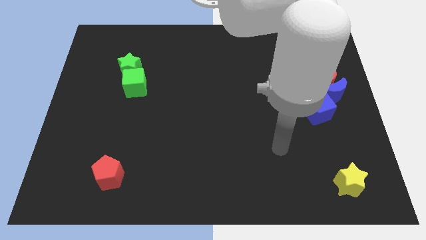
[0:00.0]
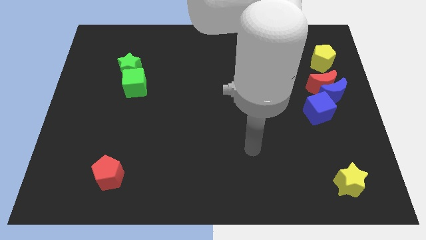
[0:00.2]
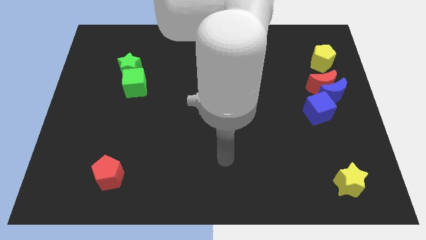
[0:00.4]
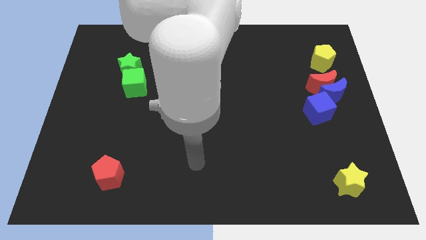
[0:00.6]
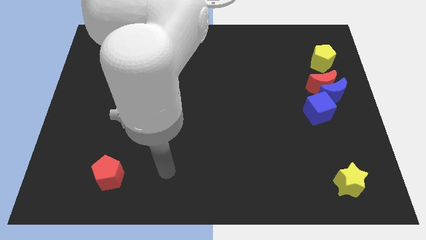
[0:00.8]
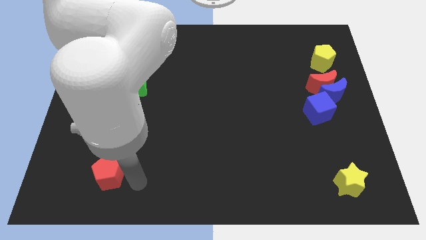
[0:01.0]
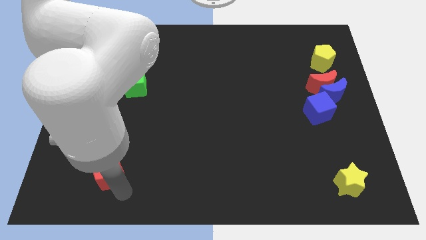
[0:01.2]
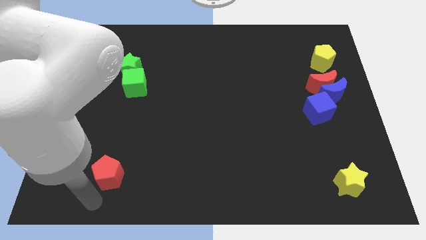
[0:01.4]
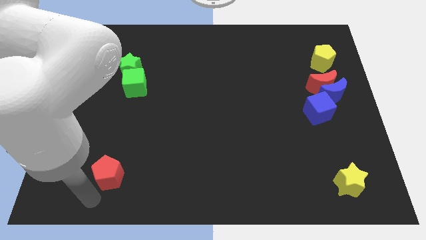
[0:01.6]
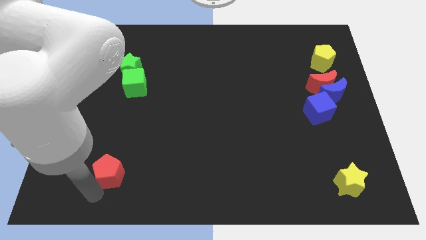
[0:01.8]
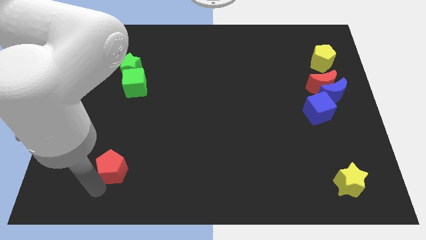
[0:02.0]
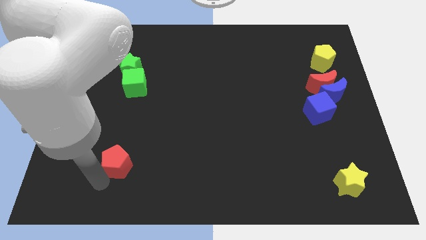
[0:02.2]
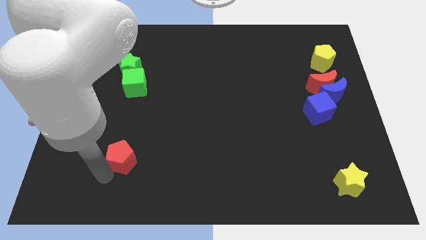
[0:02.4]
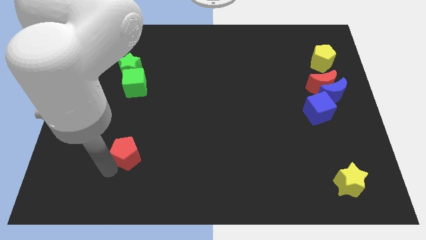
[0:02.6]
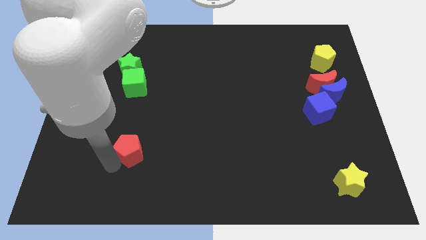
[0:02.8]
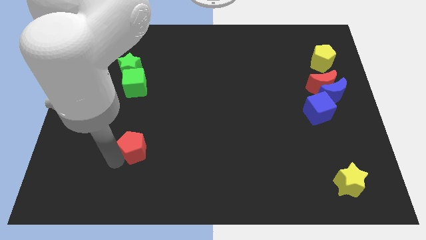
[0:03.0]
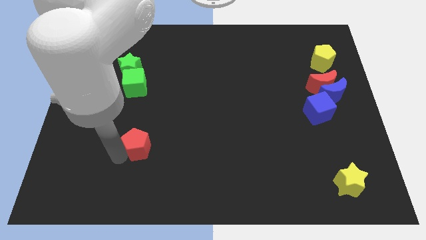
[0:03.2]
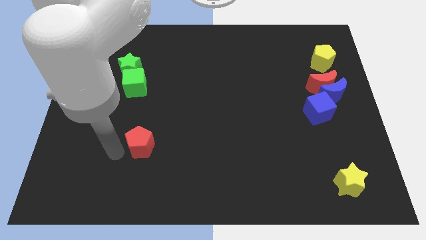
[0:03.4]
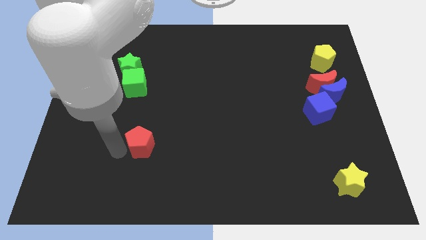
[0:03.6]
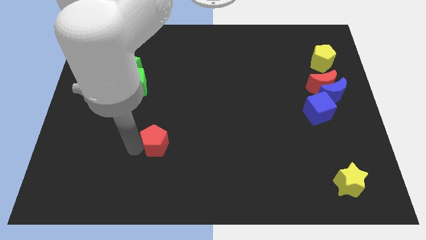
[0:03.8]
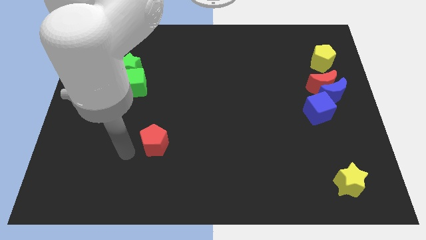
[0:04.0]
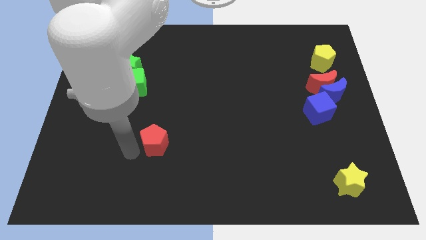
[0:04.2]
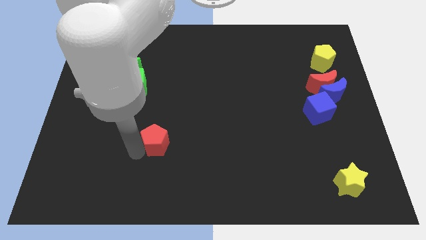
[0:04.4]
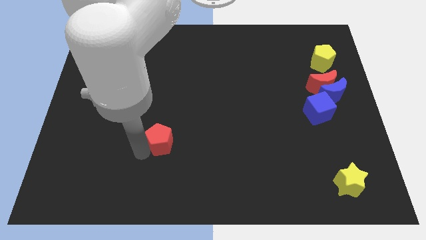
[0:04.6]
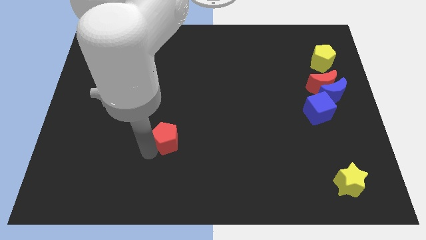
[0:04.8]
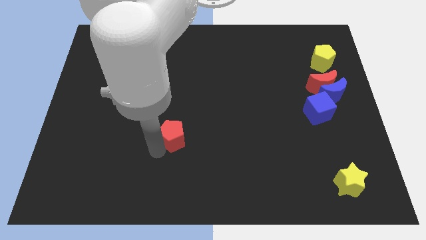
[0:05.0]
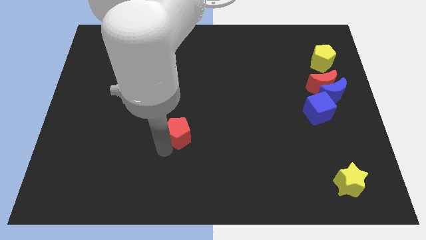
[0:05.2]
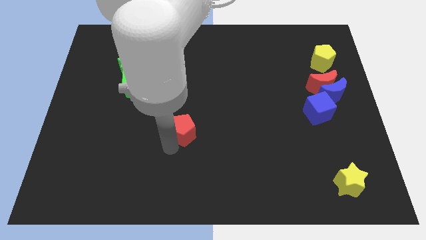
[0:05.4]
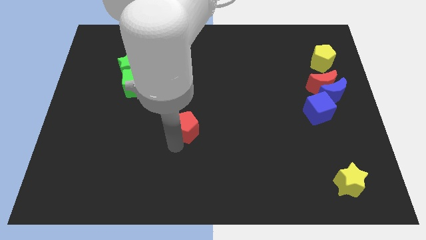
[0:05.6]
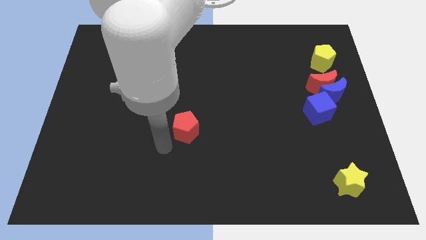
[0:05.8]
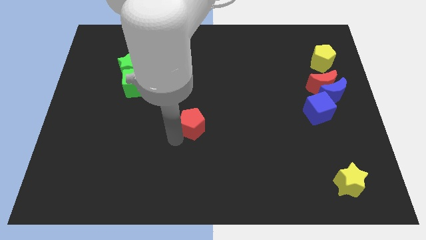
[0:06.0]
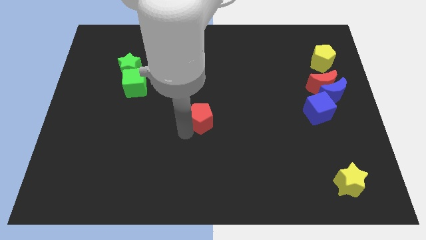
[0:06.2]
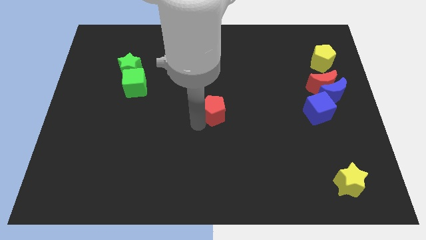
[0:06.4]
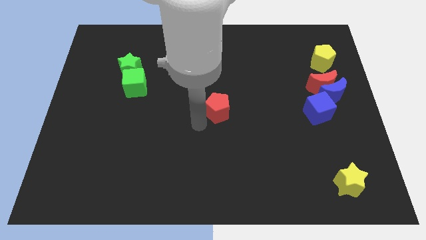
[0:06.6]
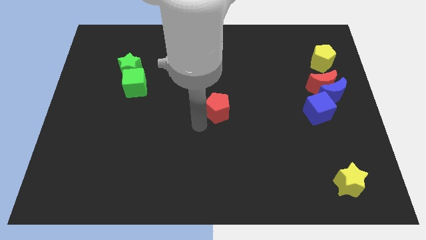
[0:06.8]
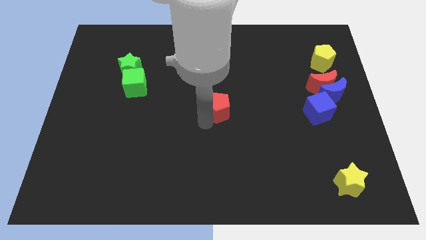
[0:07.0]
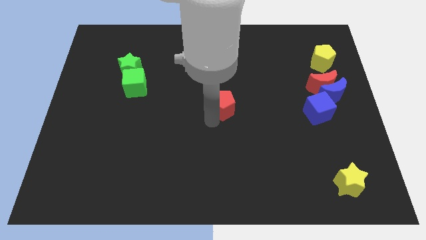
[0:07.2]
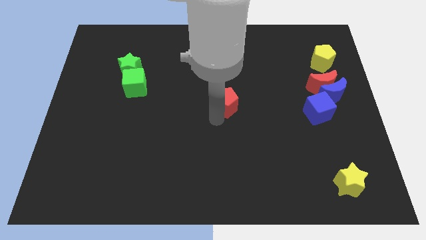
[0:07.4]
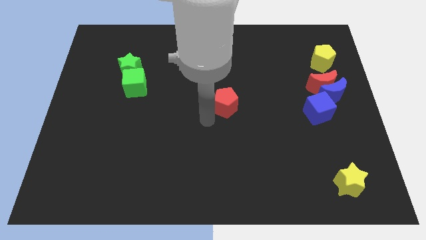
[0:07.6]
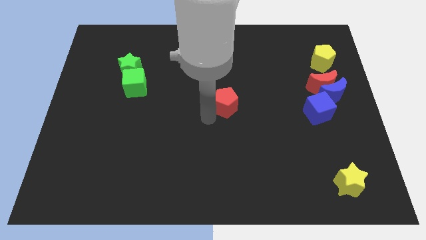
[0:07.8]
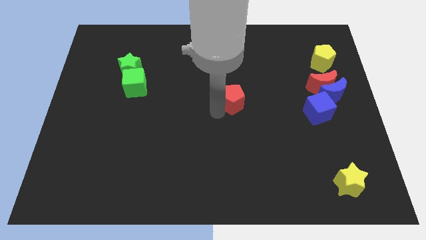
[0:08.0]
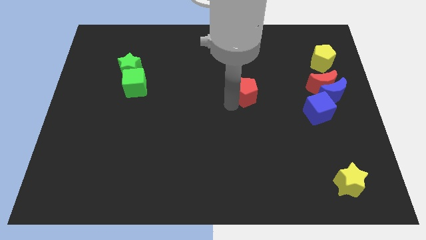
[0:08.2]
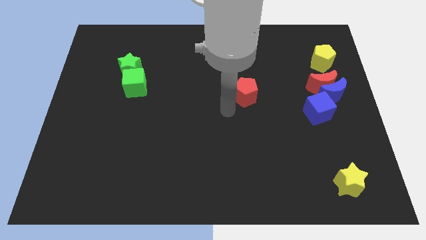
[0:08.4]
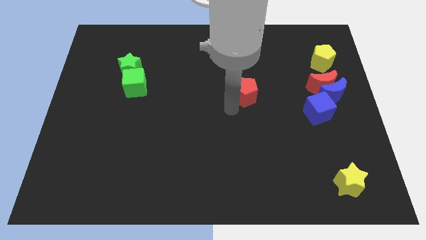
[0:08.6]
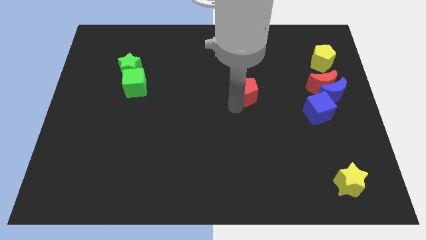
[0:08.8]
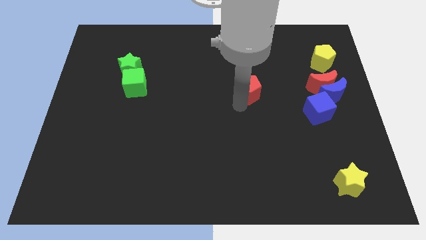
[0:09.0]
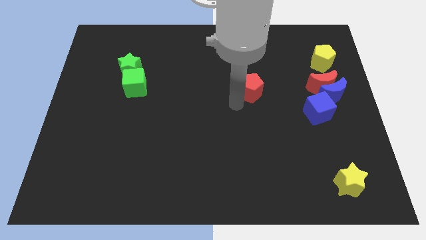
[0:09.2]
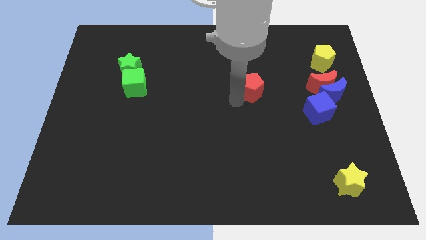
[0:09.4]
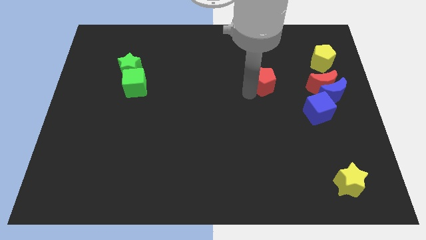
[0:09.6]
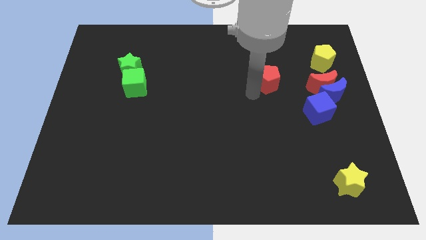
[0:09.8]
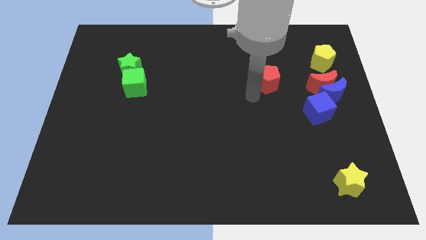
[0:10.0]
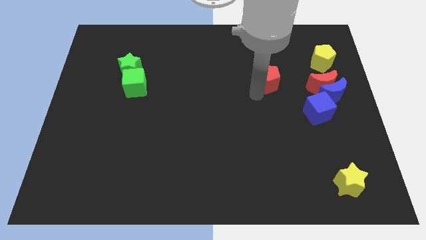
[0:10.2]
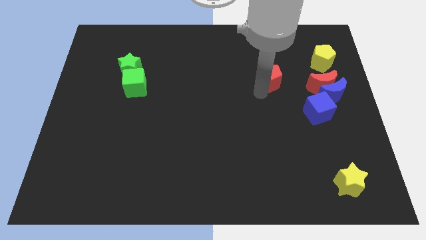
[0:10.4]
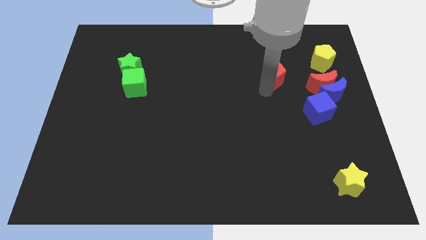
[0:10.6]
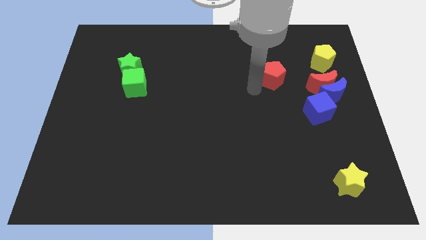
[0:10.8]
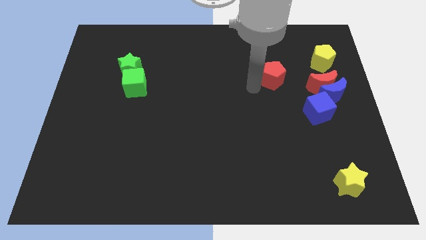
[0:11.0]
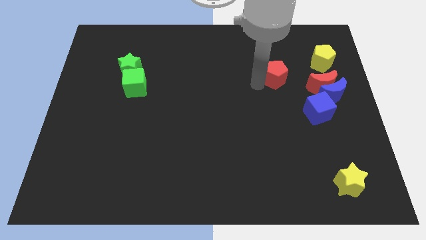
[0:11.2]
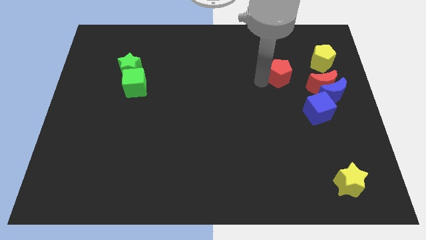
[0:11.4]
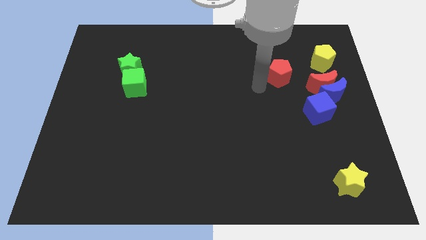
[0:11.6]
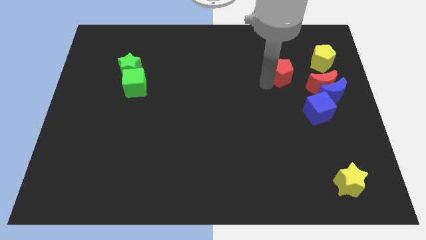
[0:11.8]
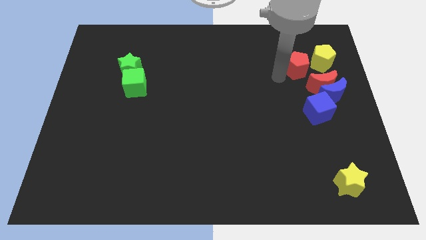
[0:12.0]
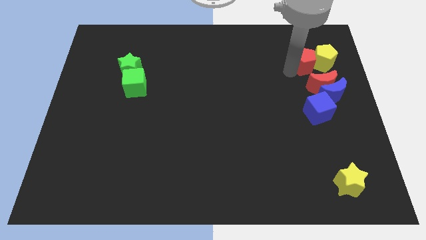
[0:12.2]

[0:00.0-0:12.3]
push the red pentagon close to the yellow pentagon

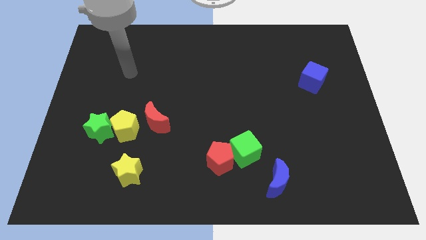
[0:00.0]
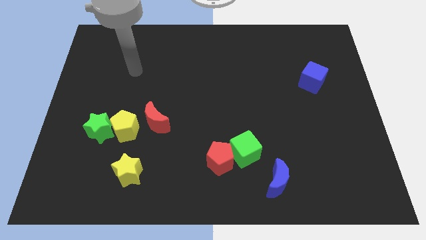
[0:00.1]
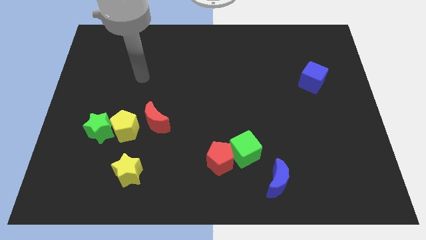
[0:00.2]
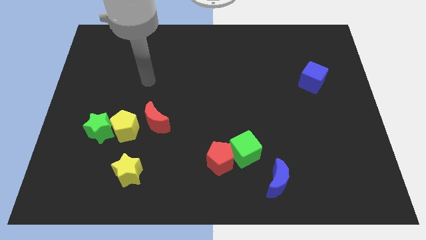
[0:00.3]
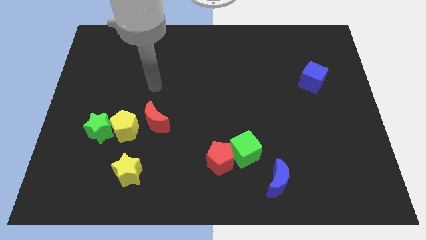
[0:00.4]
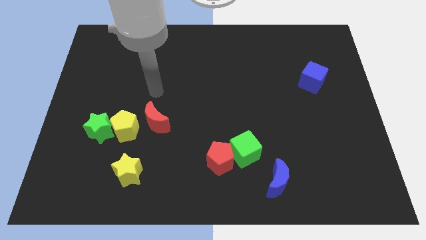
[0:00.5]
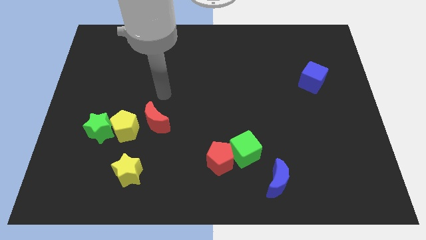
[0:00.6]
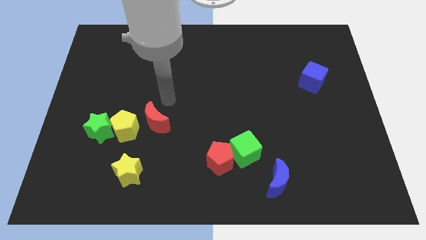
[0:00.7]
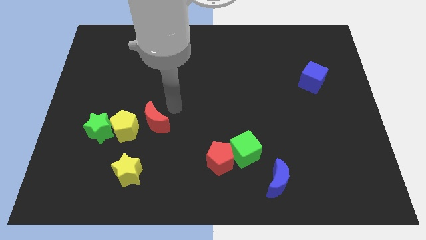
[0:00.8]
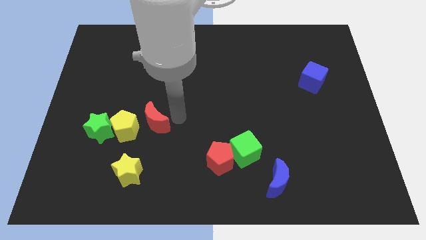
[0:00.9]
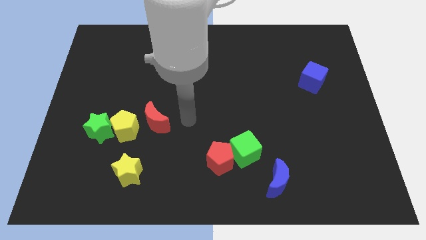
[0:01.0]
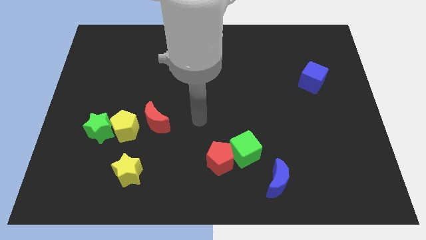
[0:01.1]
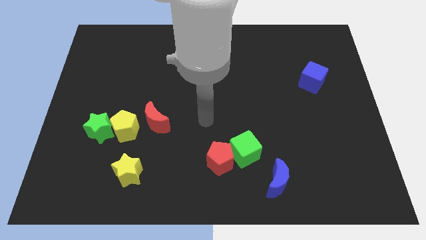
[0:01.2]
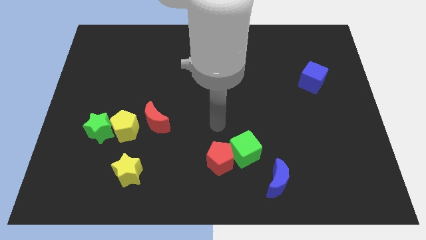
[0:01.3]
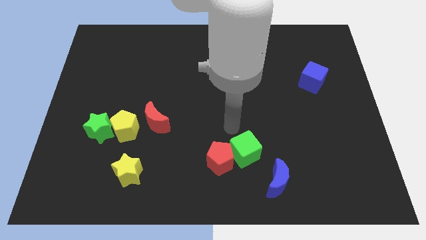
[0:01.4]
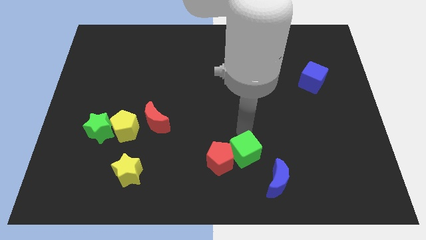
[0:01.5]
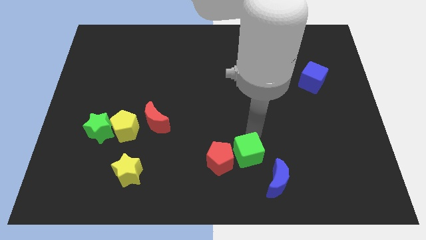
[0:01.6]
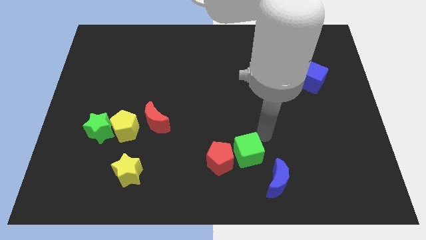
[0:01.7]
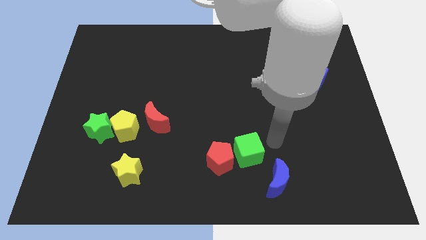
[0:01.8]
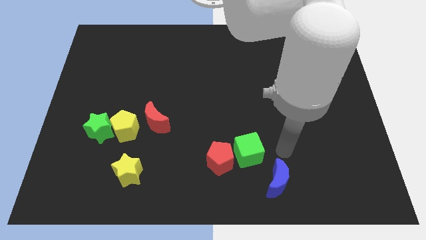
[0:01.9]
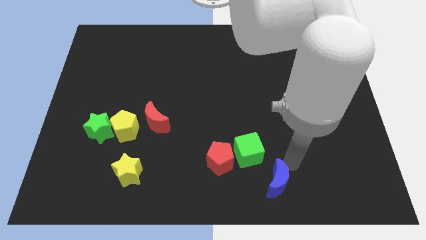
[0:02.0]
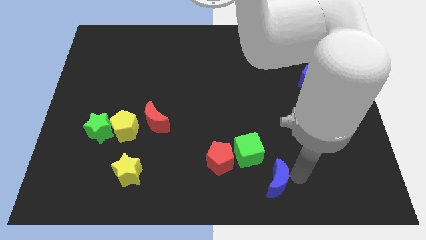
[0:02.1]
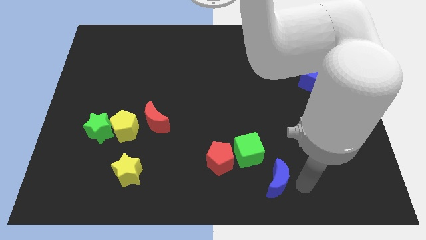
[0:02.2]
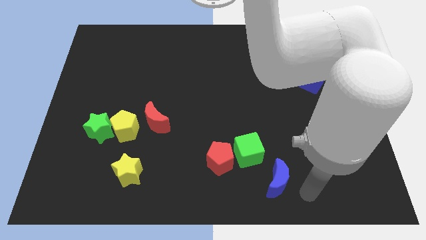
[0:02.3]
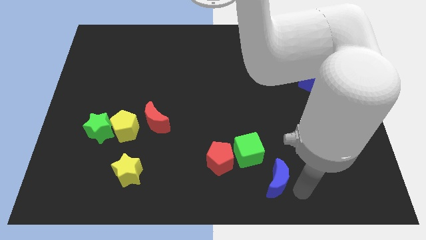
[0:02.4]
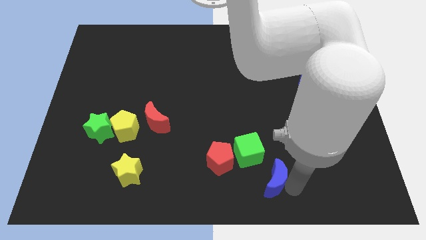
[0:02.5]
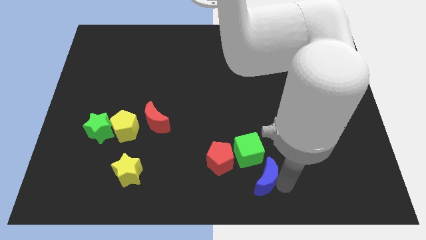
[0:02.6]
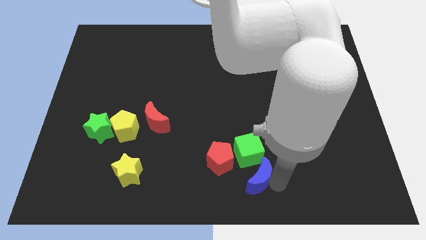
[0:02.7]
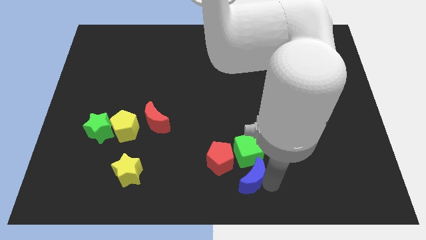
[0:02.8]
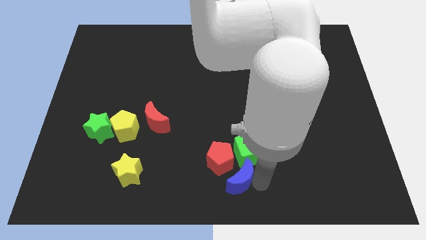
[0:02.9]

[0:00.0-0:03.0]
put the blue moon to the red pentagon
